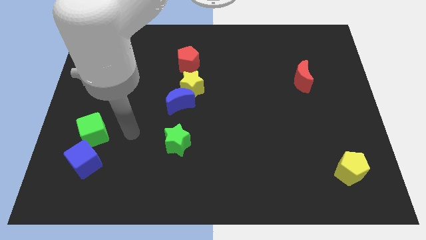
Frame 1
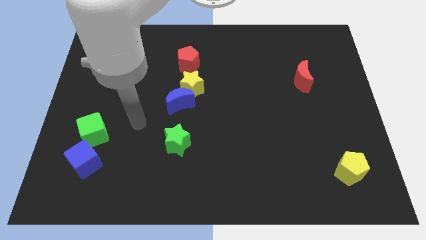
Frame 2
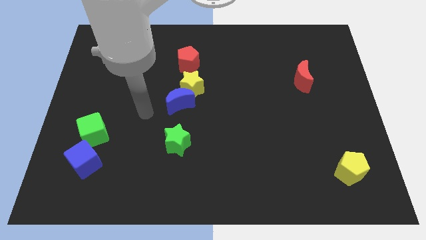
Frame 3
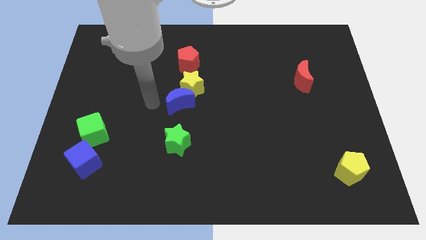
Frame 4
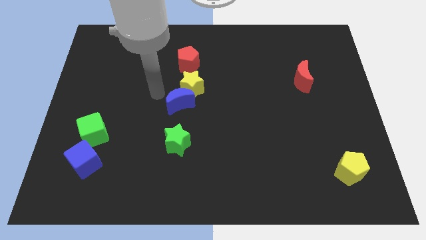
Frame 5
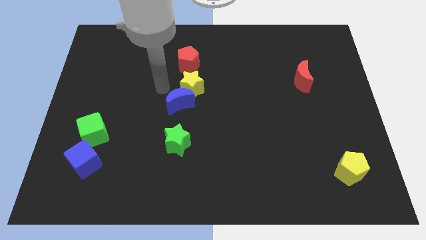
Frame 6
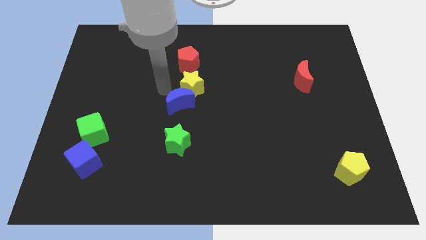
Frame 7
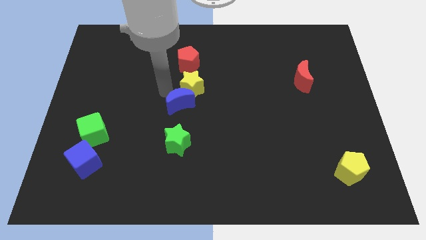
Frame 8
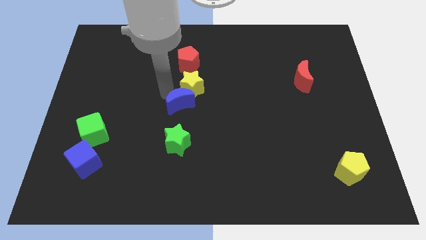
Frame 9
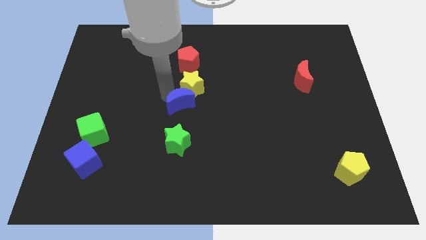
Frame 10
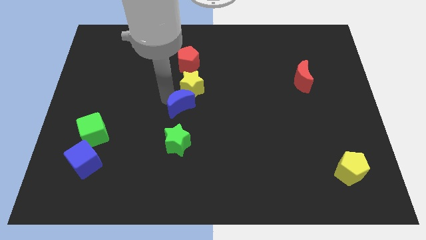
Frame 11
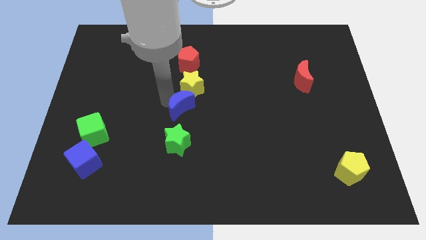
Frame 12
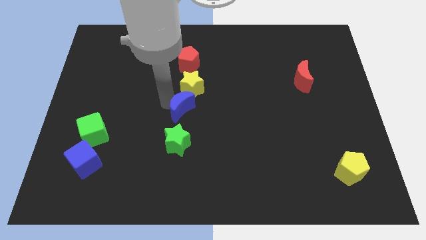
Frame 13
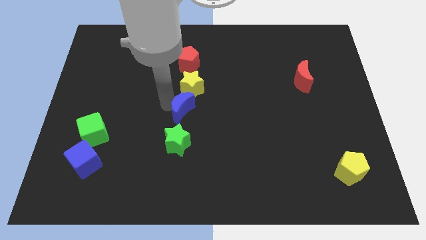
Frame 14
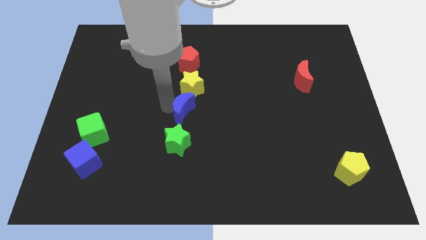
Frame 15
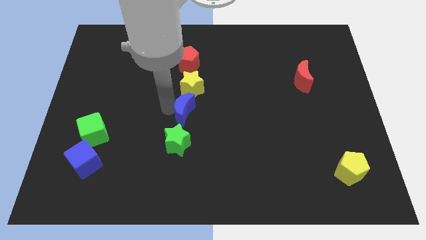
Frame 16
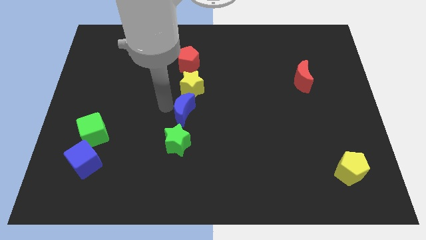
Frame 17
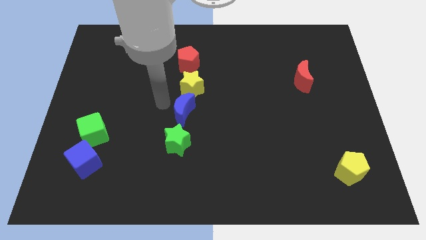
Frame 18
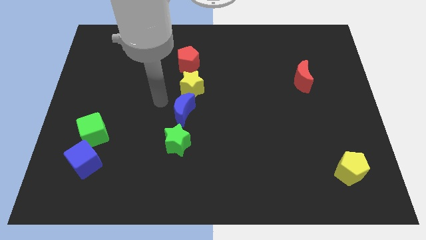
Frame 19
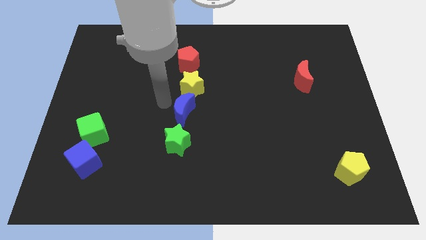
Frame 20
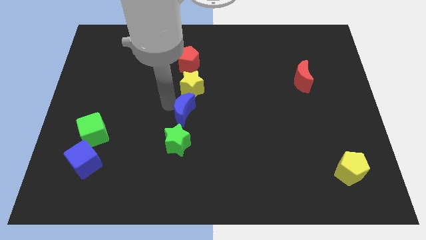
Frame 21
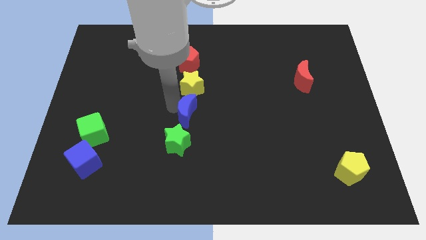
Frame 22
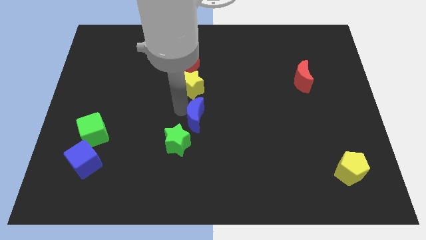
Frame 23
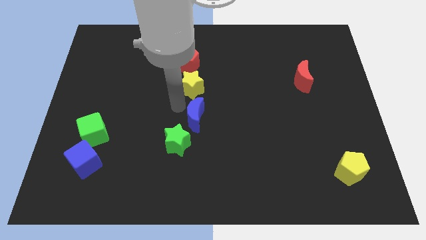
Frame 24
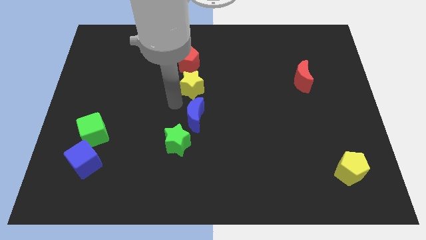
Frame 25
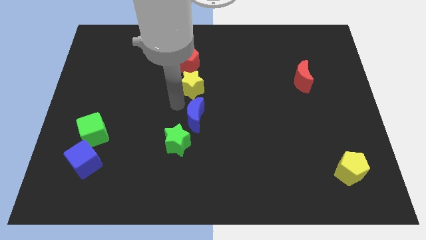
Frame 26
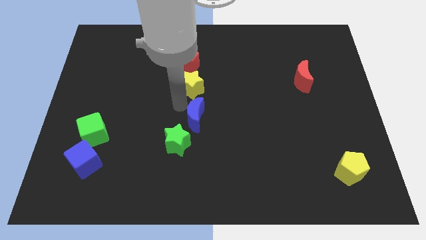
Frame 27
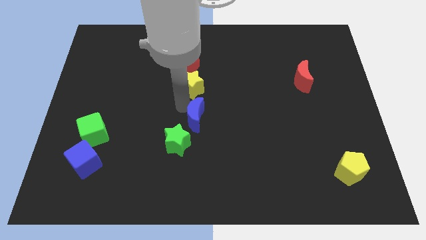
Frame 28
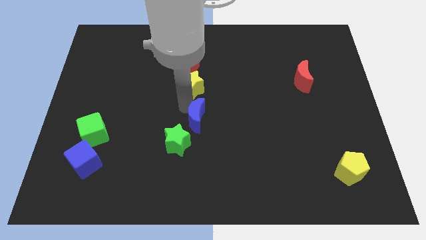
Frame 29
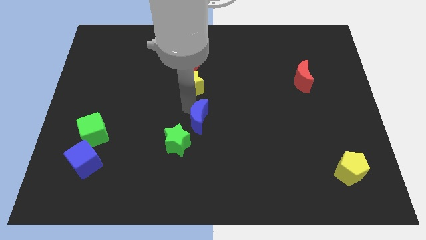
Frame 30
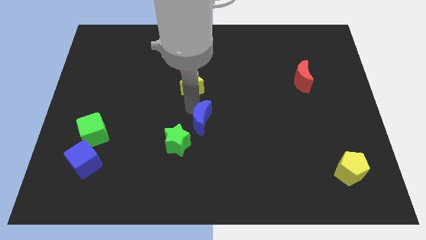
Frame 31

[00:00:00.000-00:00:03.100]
move the blue moon down and then to the right a little

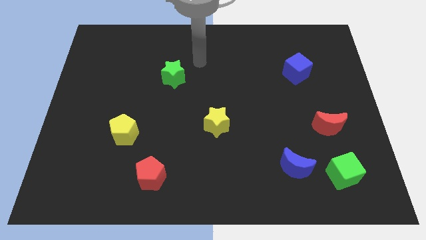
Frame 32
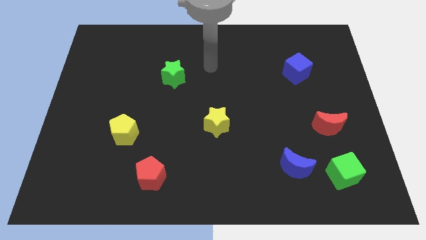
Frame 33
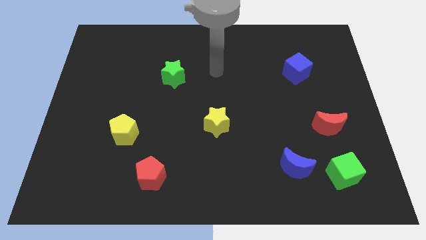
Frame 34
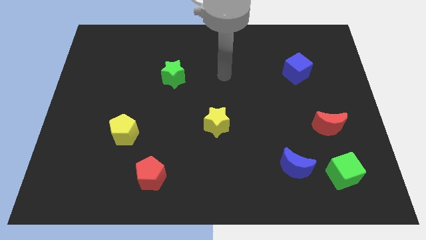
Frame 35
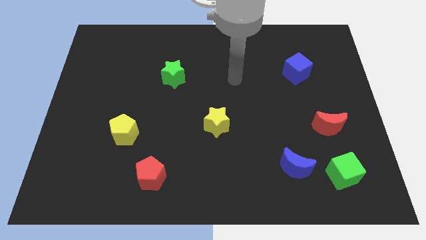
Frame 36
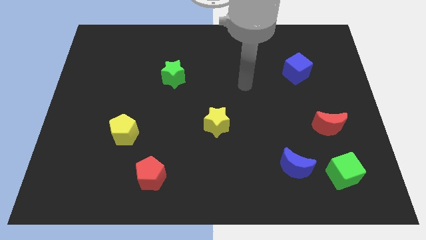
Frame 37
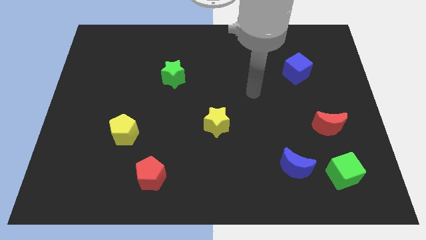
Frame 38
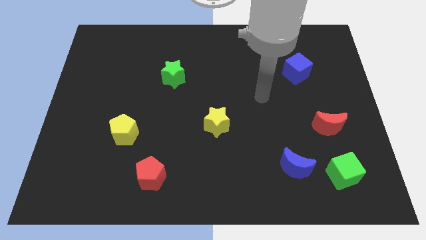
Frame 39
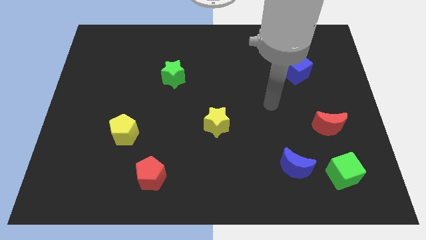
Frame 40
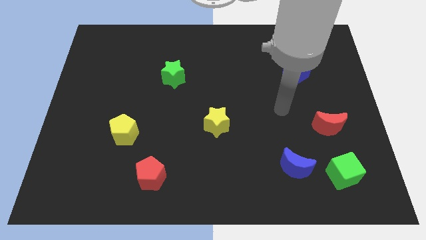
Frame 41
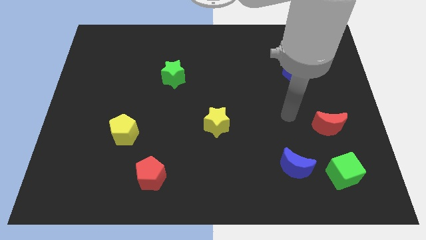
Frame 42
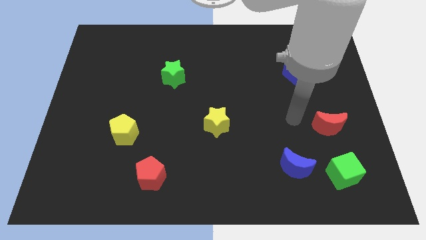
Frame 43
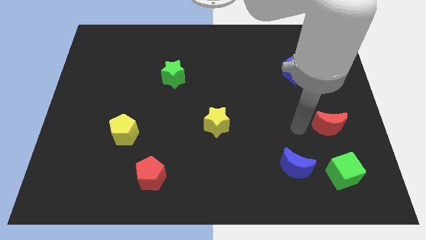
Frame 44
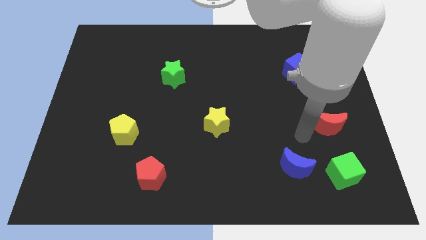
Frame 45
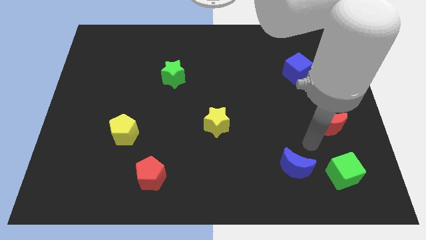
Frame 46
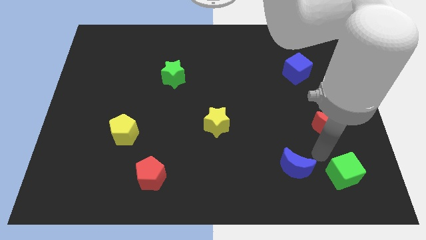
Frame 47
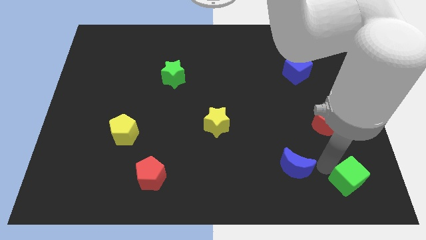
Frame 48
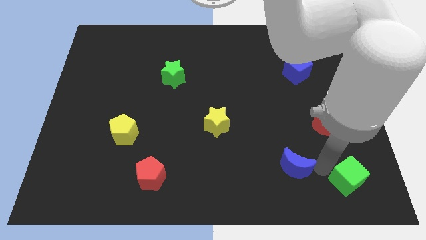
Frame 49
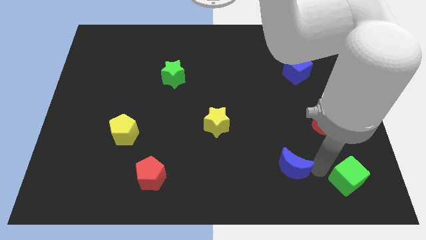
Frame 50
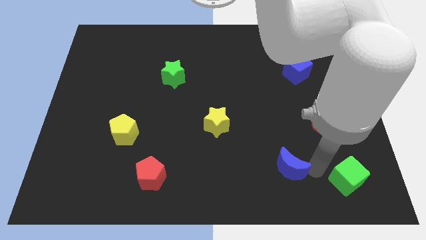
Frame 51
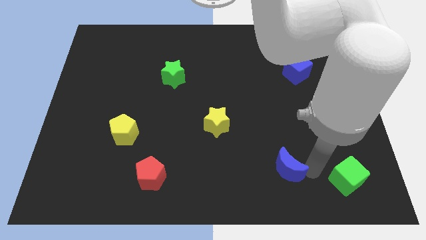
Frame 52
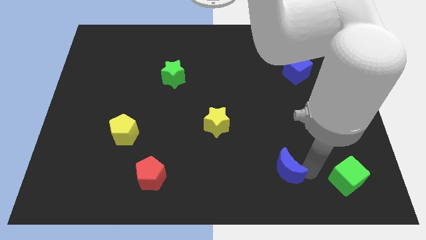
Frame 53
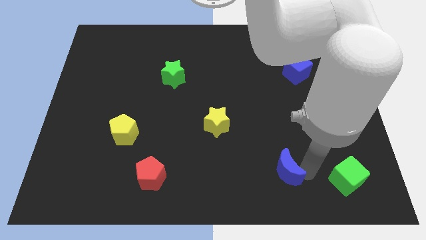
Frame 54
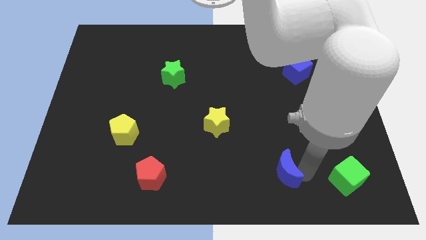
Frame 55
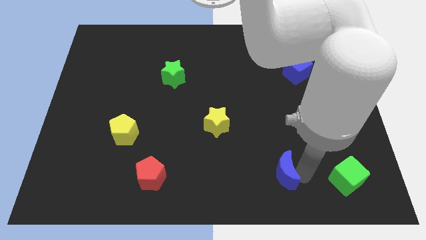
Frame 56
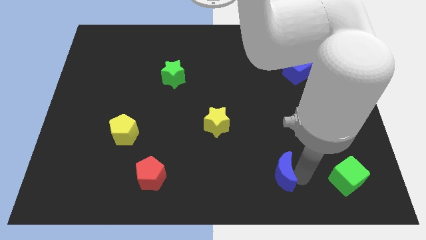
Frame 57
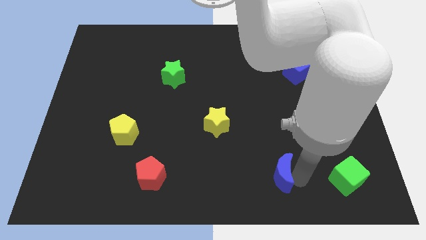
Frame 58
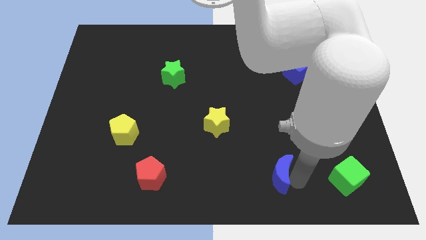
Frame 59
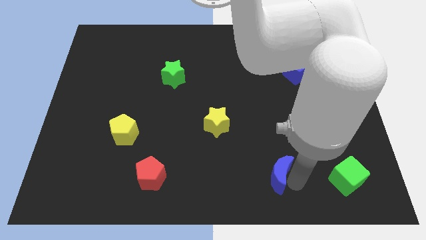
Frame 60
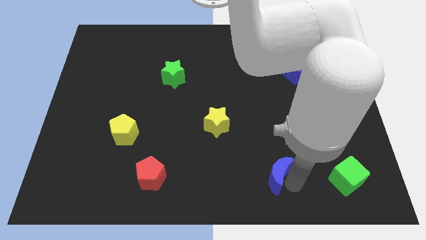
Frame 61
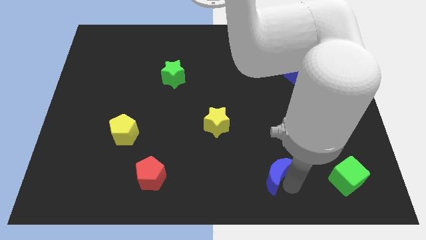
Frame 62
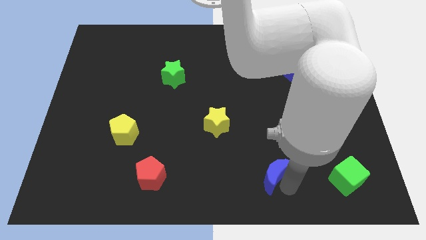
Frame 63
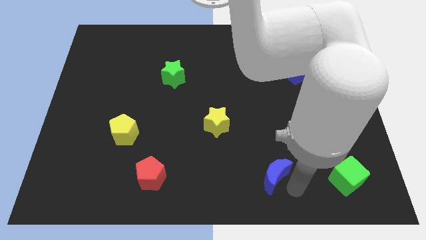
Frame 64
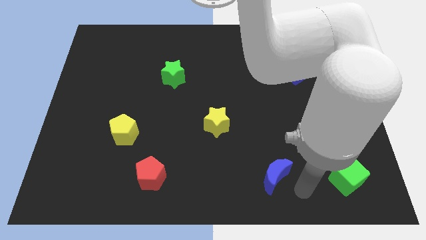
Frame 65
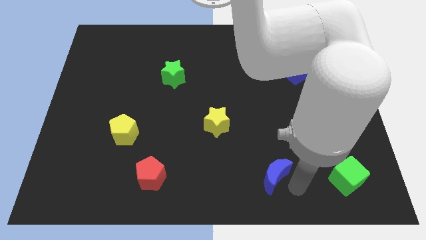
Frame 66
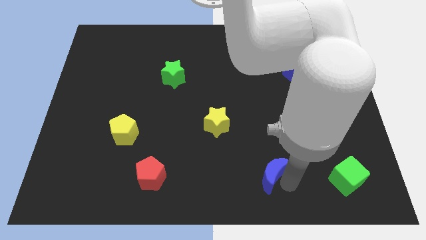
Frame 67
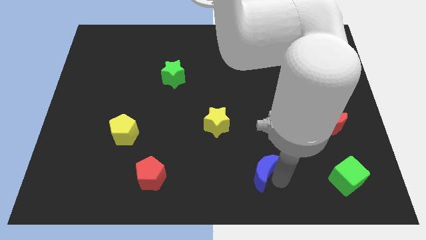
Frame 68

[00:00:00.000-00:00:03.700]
push the blue moon slightly to the left

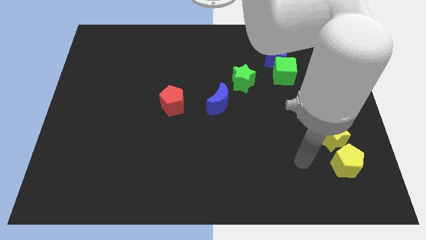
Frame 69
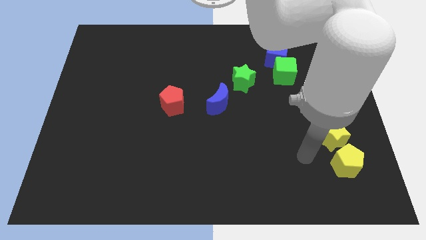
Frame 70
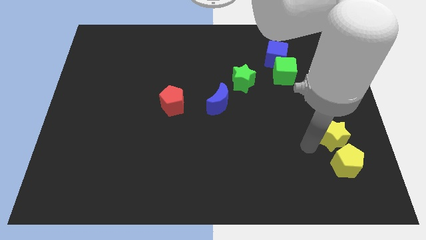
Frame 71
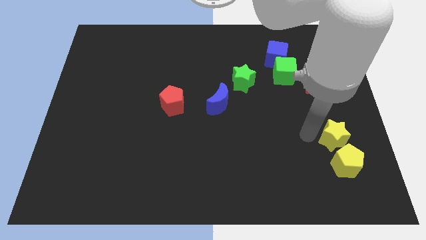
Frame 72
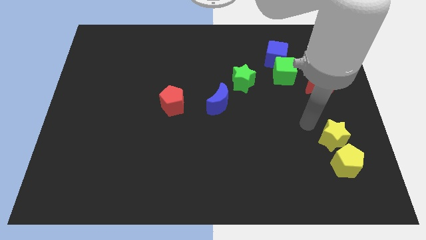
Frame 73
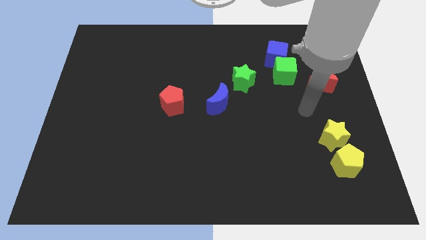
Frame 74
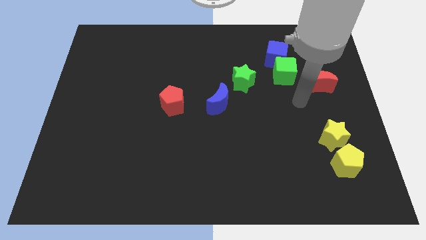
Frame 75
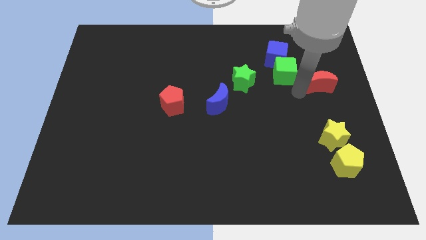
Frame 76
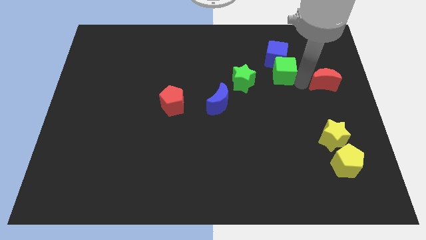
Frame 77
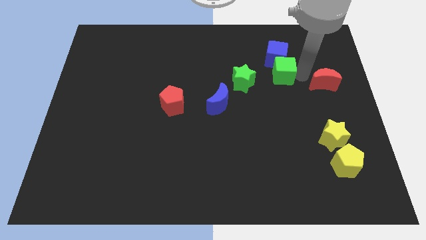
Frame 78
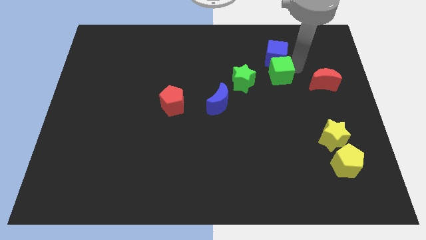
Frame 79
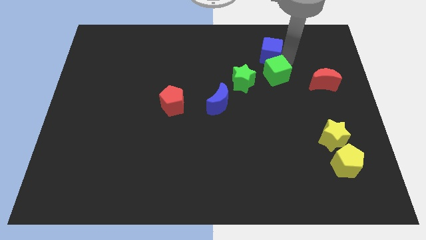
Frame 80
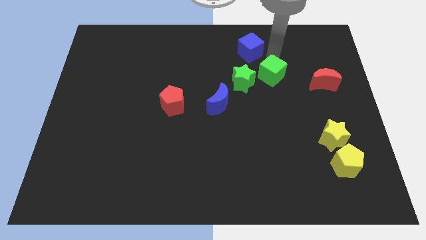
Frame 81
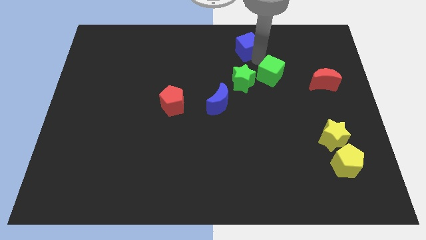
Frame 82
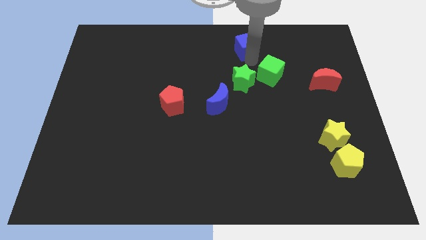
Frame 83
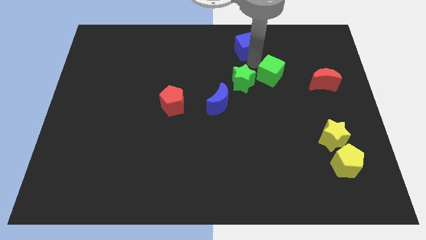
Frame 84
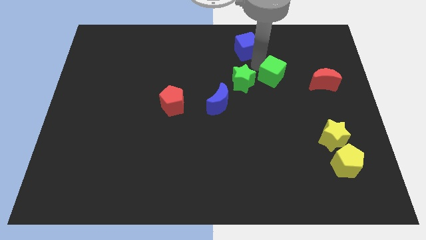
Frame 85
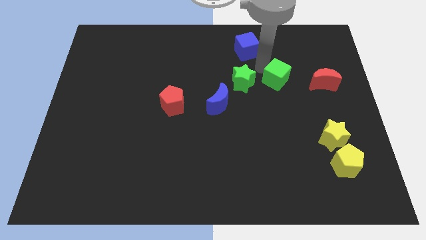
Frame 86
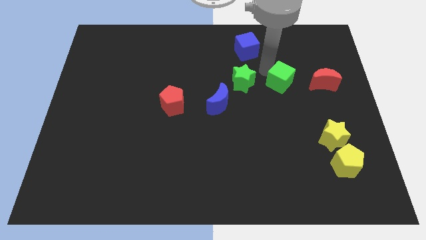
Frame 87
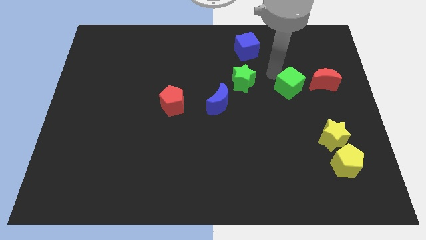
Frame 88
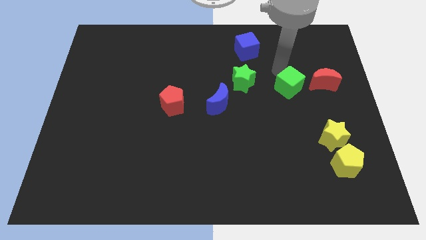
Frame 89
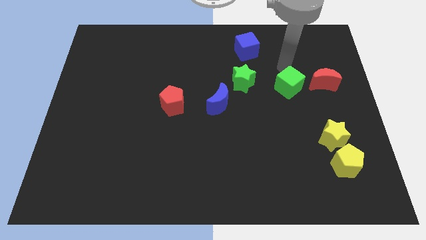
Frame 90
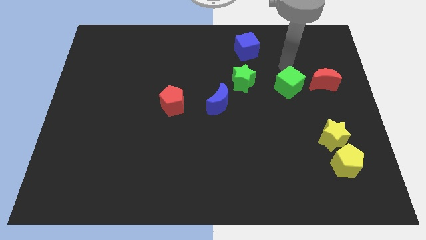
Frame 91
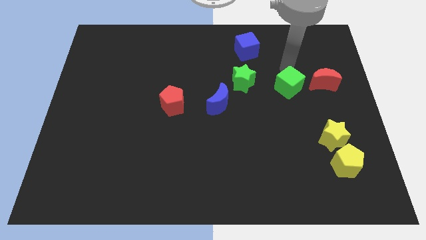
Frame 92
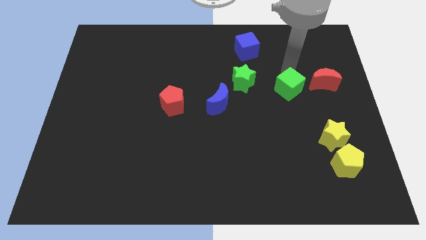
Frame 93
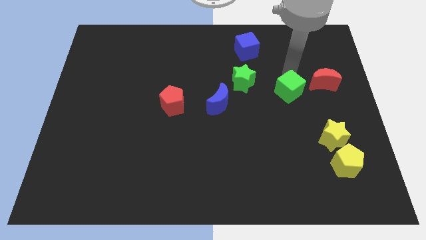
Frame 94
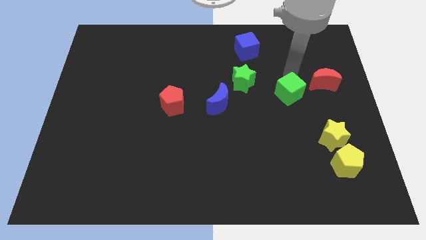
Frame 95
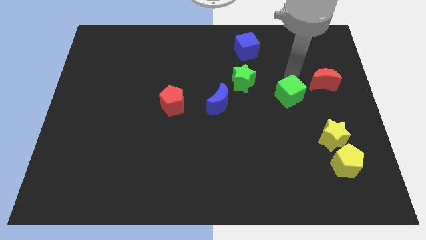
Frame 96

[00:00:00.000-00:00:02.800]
slightly move the green cube down
